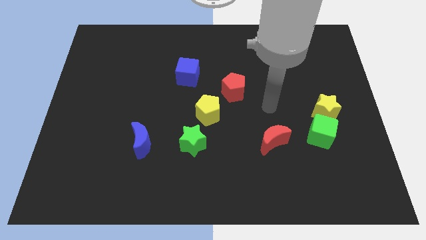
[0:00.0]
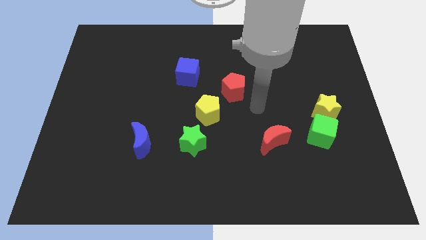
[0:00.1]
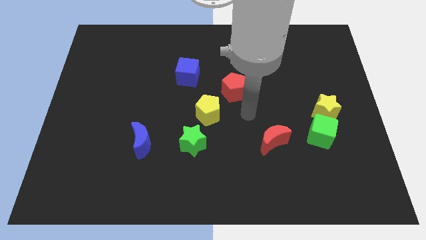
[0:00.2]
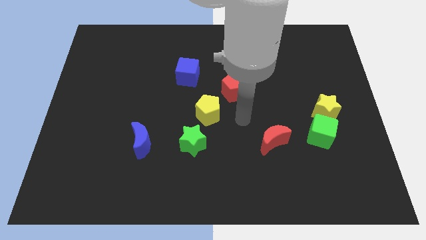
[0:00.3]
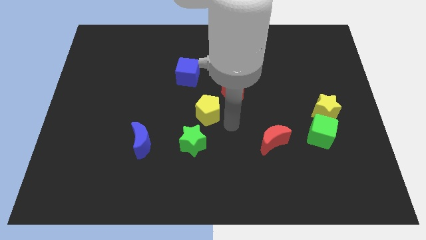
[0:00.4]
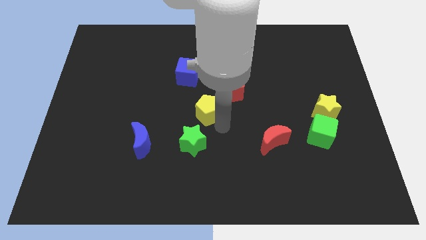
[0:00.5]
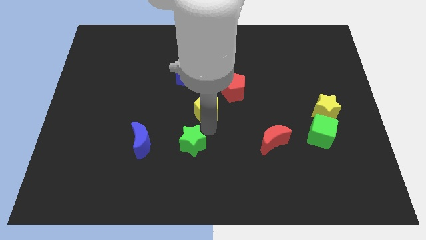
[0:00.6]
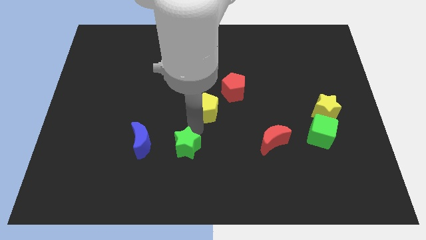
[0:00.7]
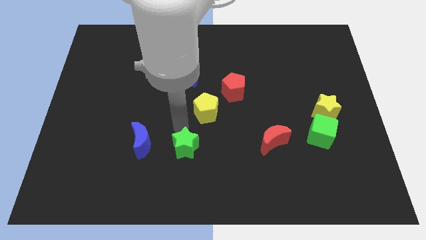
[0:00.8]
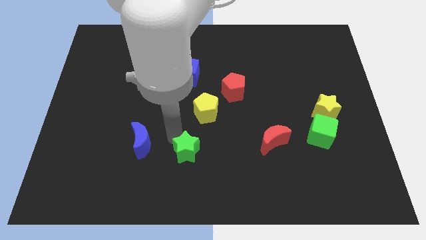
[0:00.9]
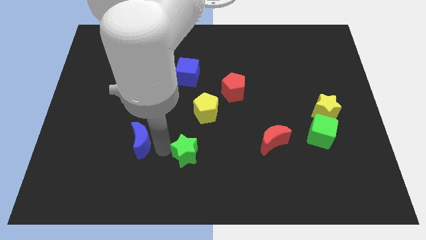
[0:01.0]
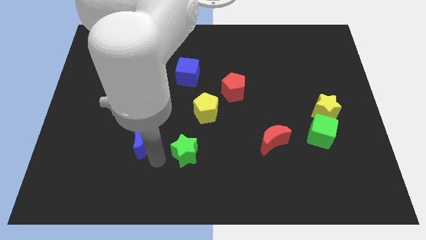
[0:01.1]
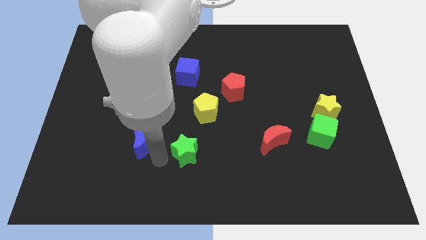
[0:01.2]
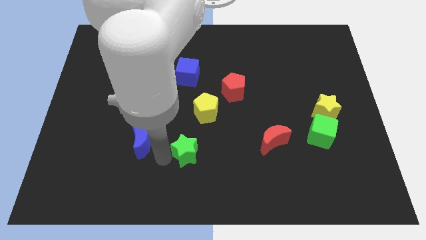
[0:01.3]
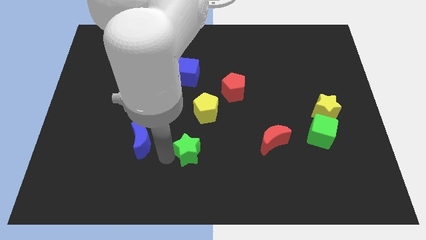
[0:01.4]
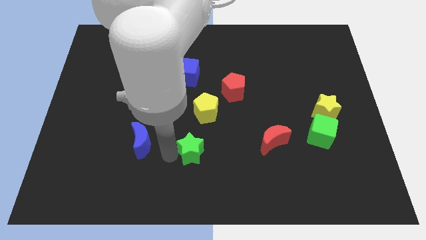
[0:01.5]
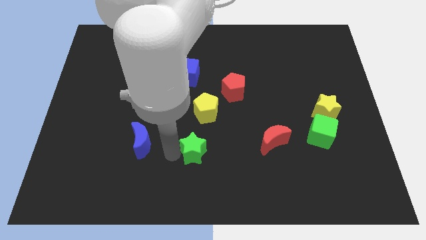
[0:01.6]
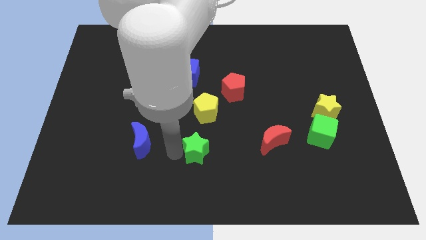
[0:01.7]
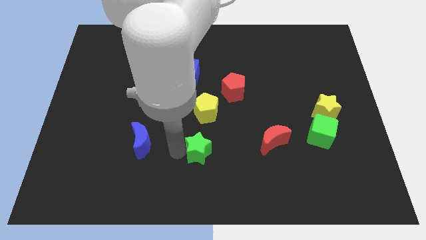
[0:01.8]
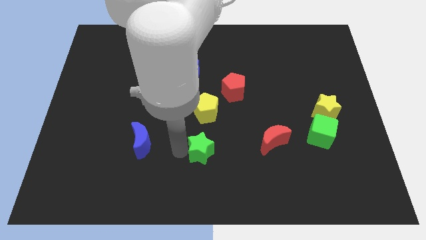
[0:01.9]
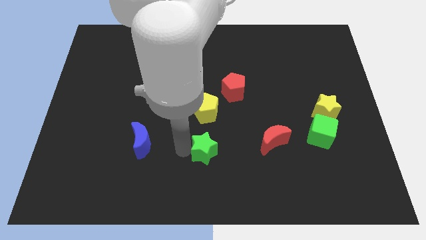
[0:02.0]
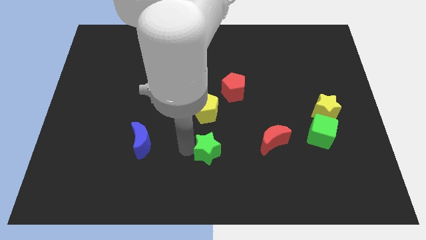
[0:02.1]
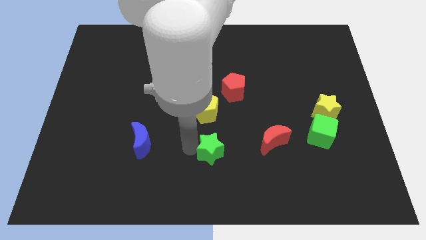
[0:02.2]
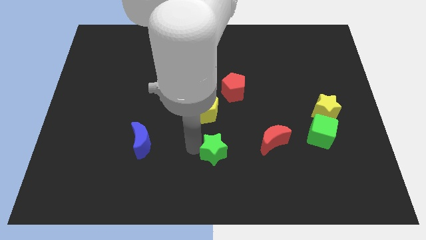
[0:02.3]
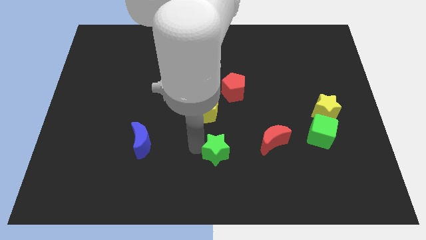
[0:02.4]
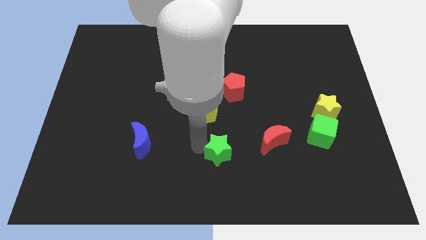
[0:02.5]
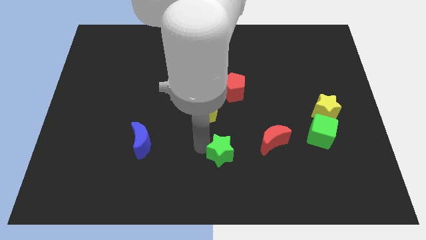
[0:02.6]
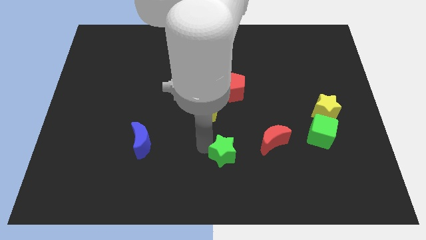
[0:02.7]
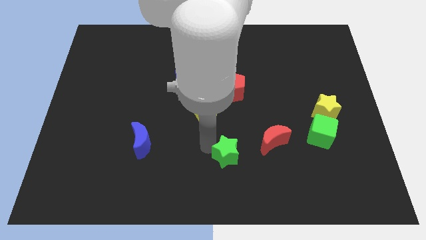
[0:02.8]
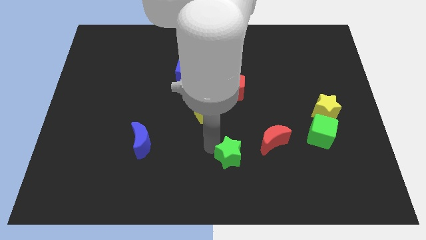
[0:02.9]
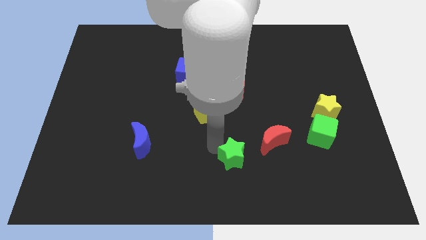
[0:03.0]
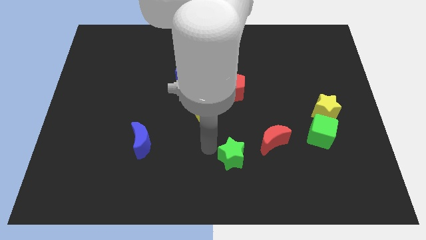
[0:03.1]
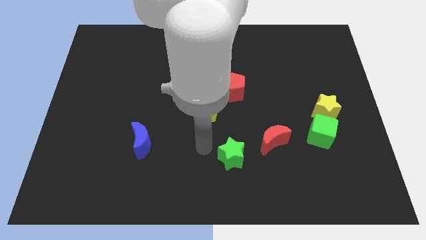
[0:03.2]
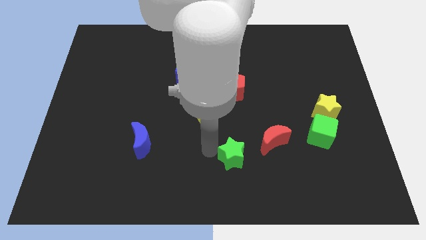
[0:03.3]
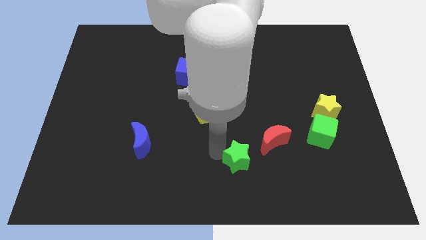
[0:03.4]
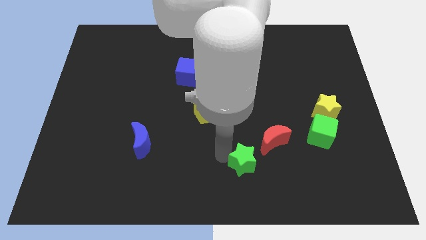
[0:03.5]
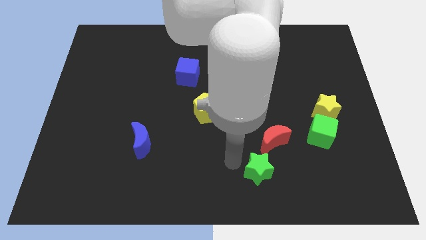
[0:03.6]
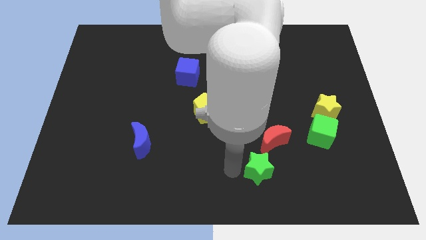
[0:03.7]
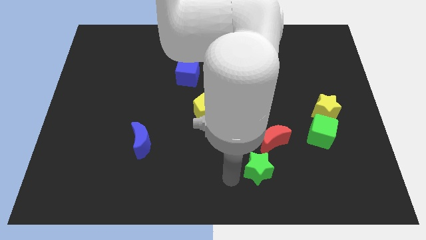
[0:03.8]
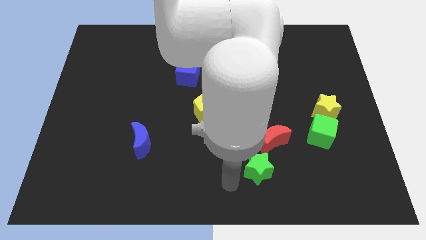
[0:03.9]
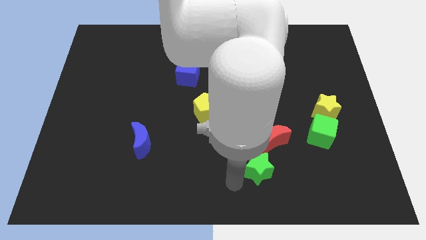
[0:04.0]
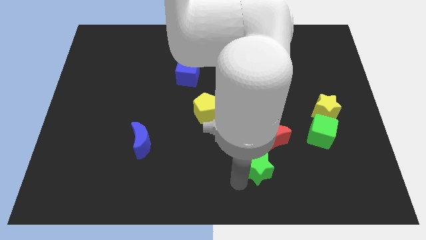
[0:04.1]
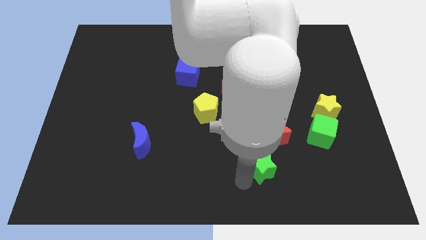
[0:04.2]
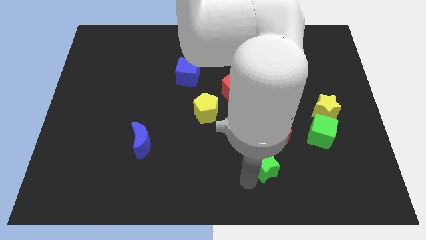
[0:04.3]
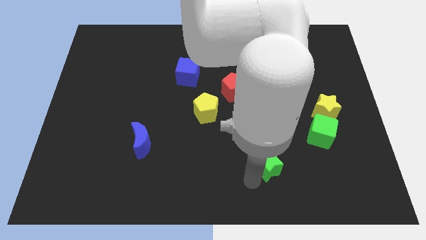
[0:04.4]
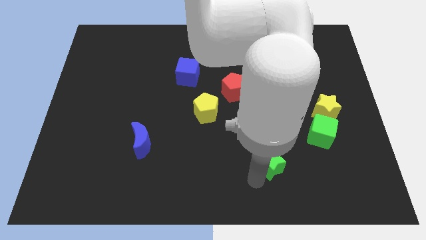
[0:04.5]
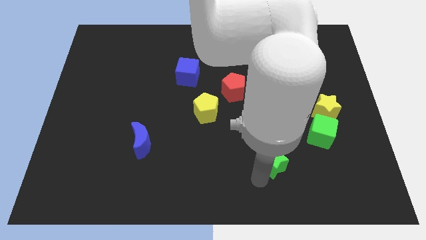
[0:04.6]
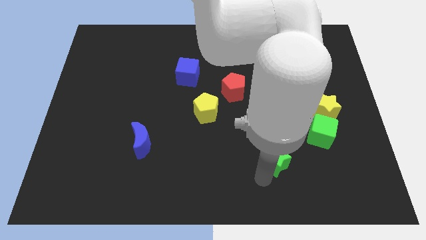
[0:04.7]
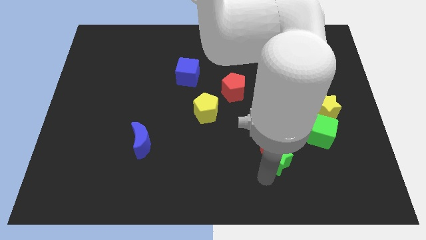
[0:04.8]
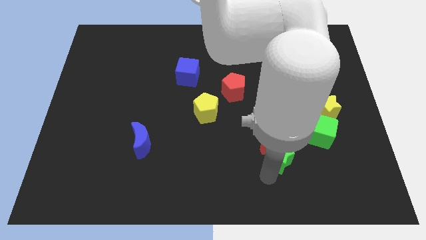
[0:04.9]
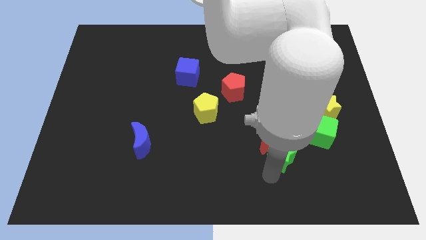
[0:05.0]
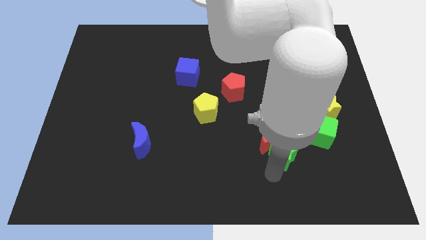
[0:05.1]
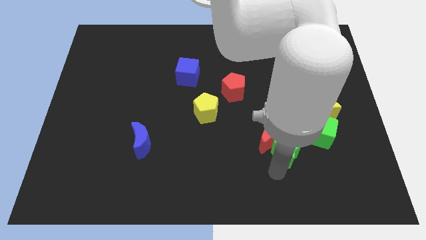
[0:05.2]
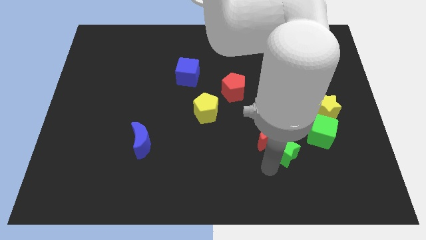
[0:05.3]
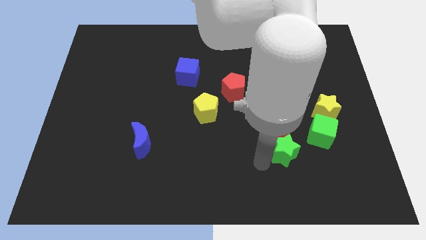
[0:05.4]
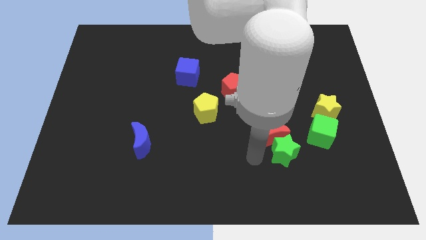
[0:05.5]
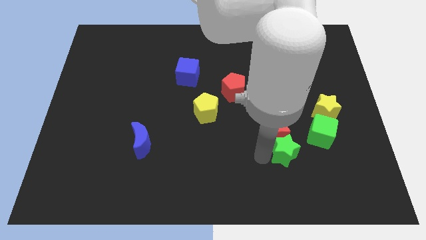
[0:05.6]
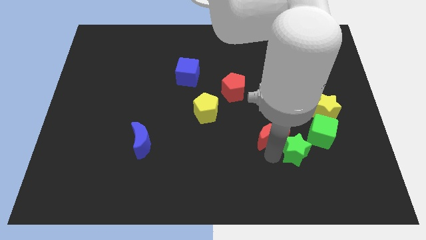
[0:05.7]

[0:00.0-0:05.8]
slide the green star to the right

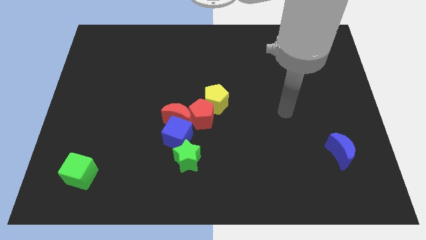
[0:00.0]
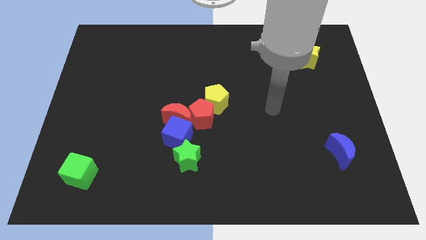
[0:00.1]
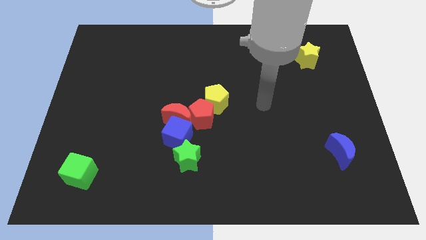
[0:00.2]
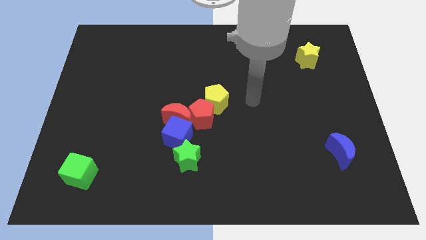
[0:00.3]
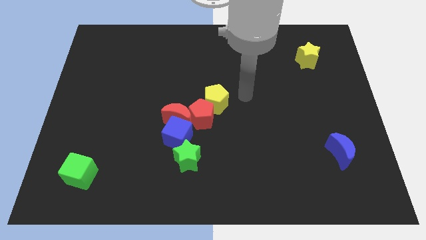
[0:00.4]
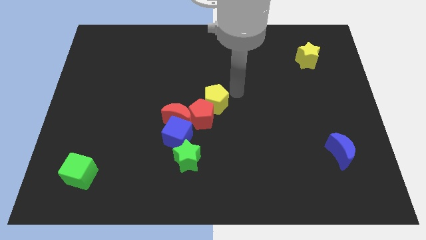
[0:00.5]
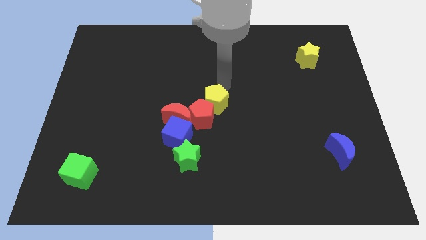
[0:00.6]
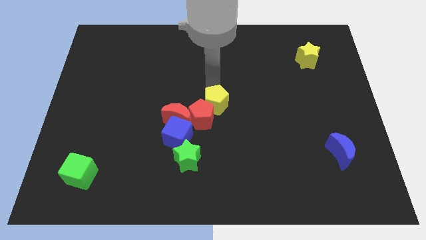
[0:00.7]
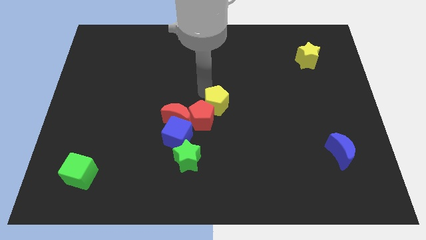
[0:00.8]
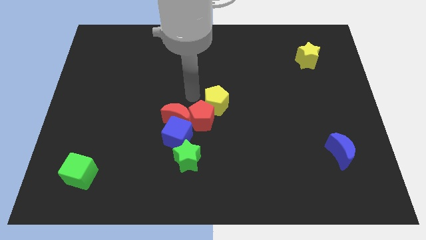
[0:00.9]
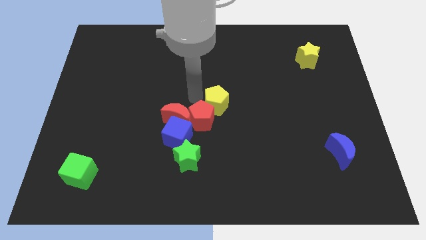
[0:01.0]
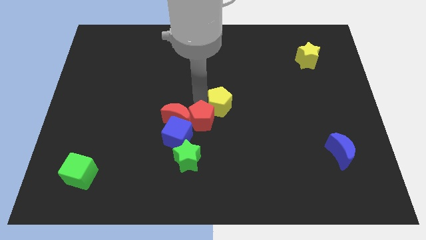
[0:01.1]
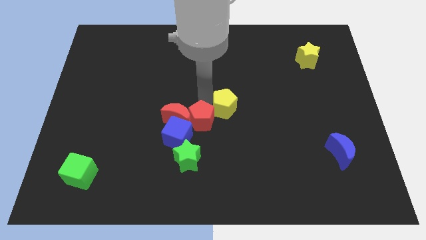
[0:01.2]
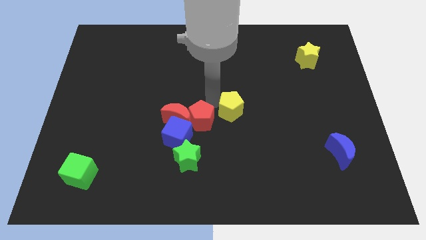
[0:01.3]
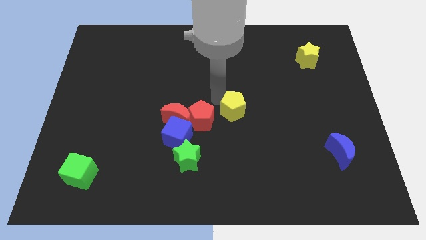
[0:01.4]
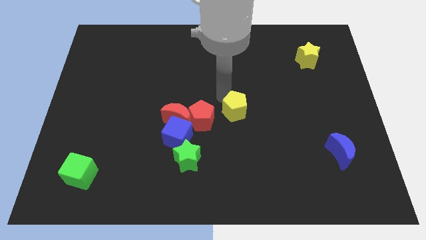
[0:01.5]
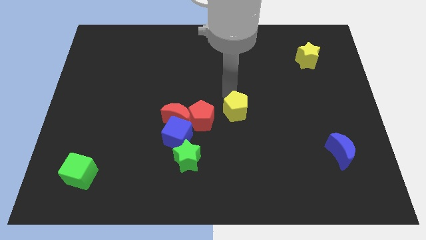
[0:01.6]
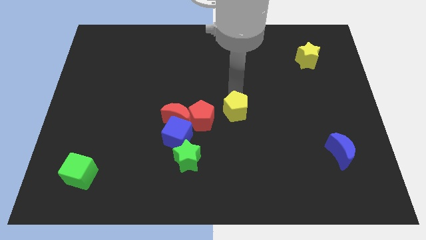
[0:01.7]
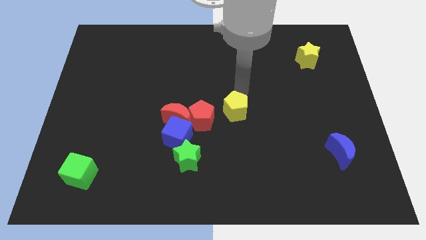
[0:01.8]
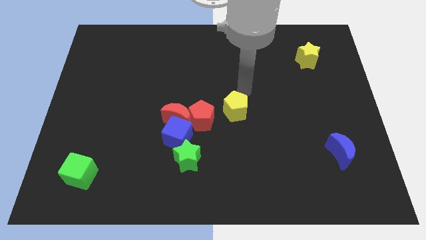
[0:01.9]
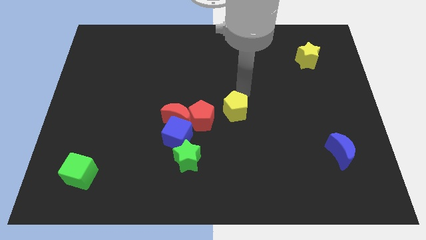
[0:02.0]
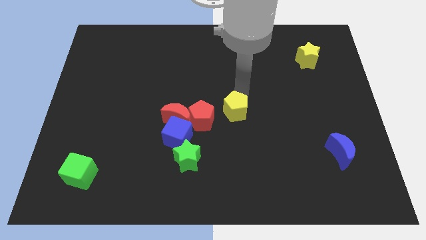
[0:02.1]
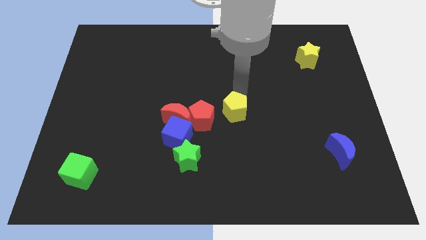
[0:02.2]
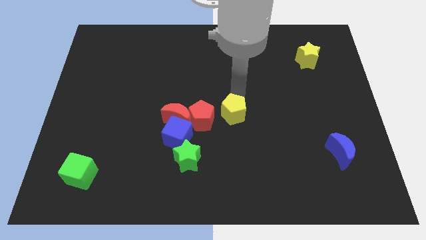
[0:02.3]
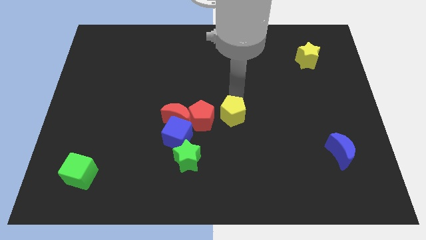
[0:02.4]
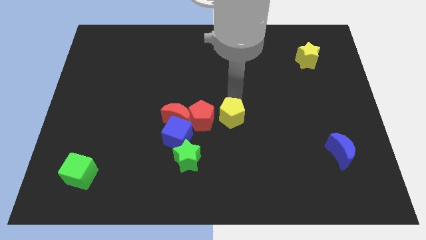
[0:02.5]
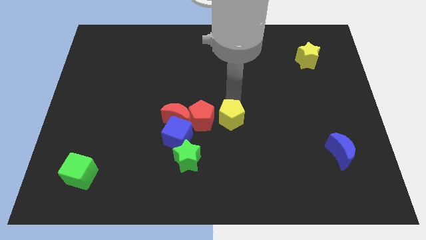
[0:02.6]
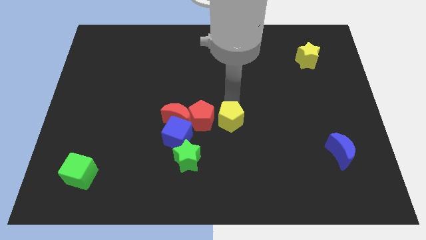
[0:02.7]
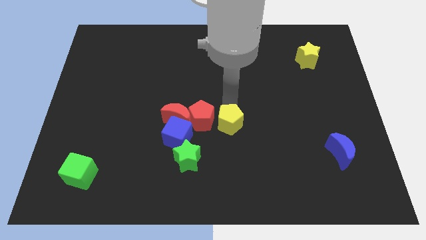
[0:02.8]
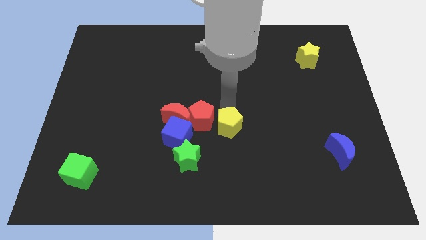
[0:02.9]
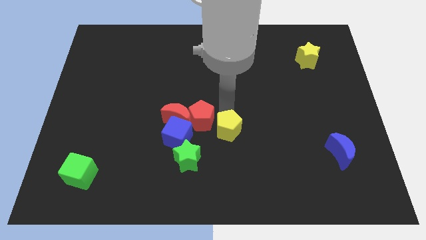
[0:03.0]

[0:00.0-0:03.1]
slide the yellow pentagon slightly down
